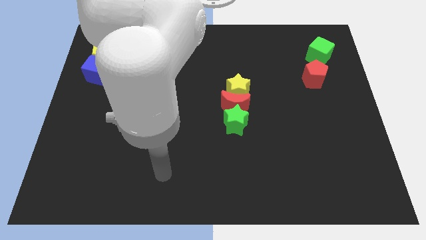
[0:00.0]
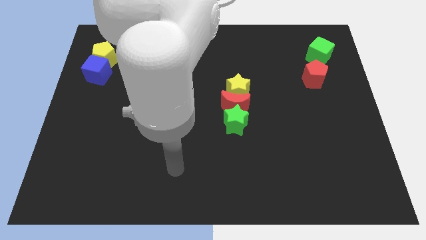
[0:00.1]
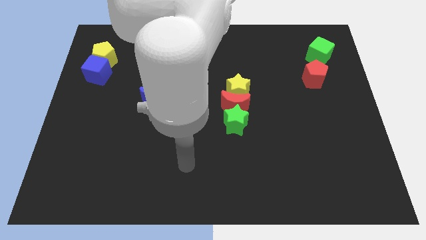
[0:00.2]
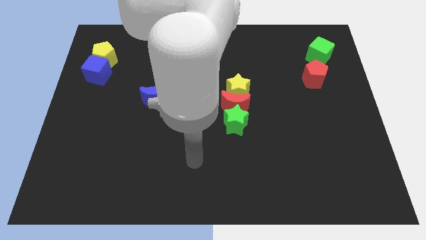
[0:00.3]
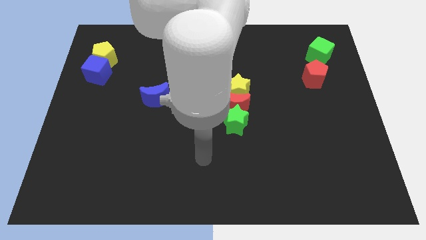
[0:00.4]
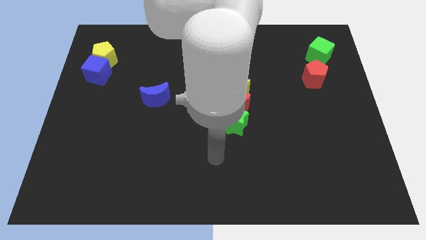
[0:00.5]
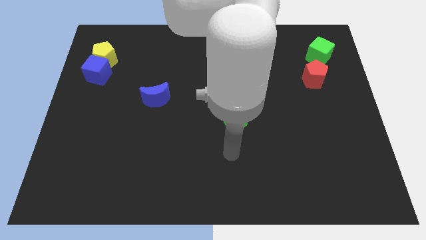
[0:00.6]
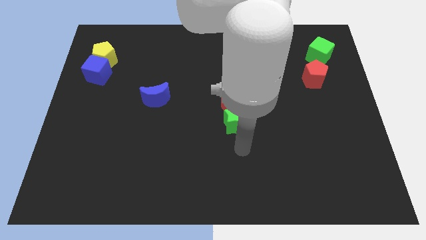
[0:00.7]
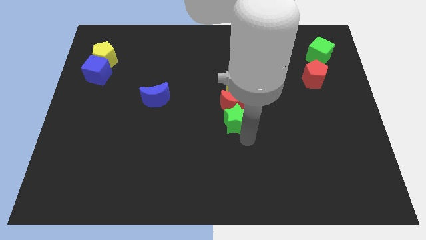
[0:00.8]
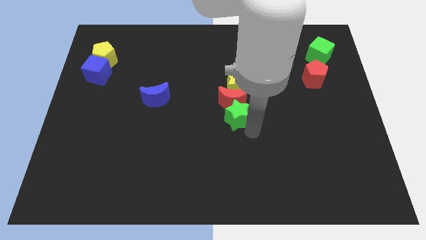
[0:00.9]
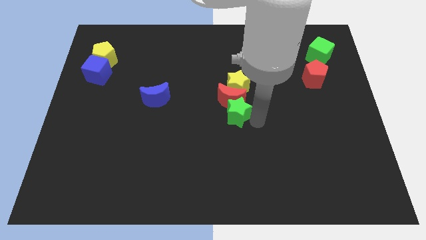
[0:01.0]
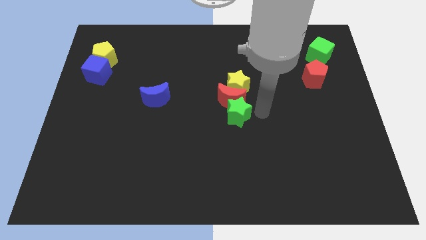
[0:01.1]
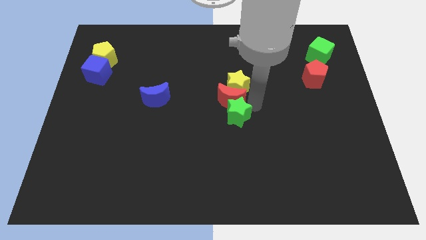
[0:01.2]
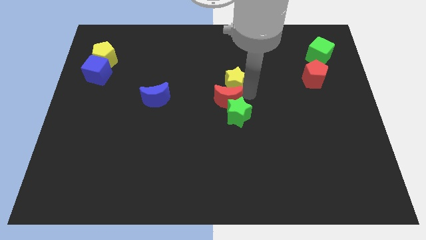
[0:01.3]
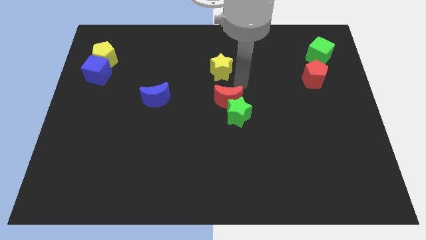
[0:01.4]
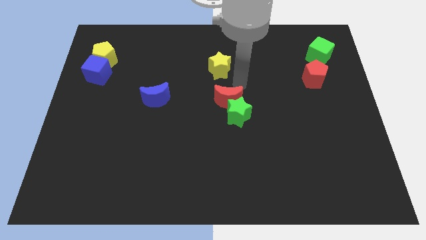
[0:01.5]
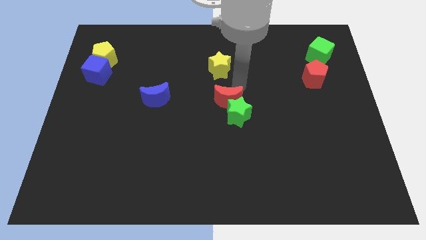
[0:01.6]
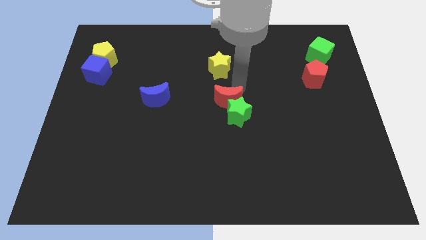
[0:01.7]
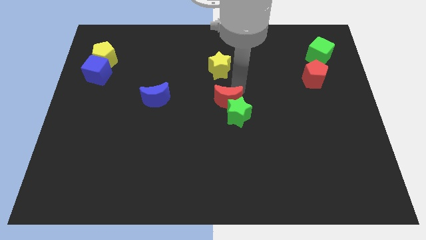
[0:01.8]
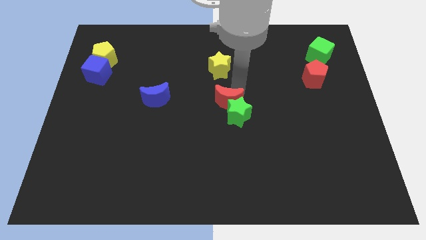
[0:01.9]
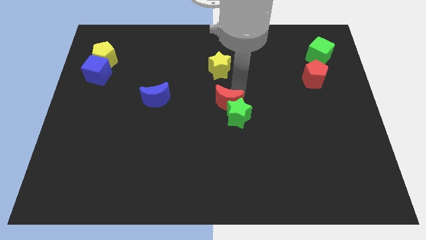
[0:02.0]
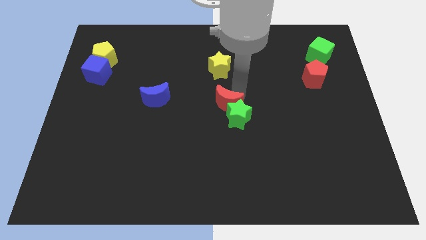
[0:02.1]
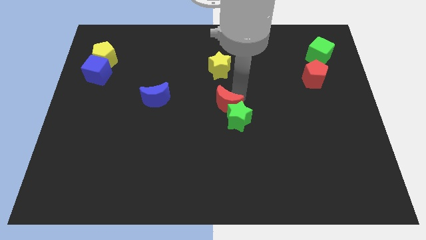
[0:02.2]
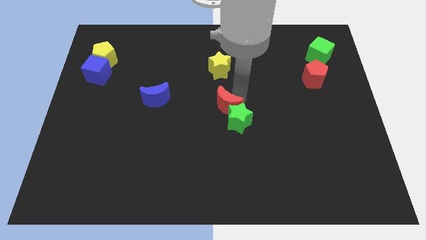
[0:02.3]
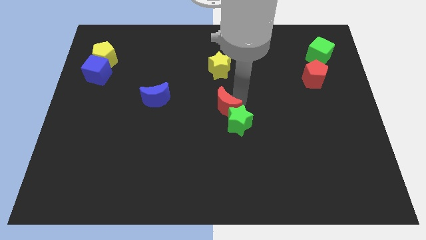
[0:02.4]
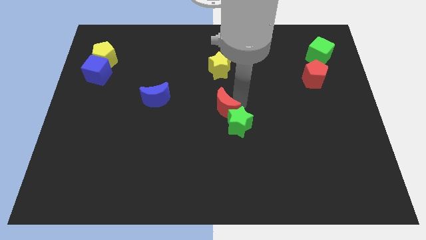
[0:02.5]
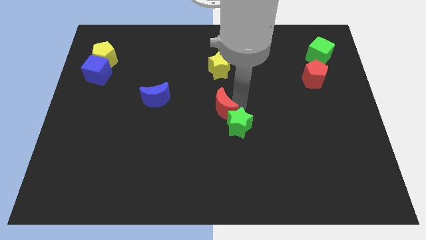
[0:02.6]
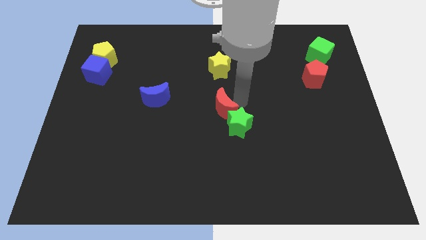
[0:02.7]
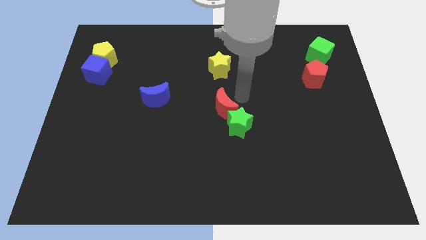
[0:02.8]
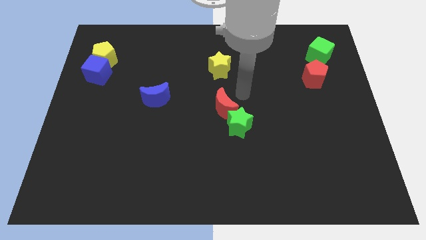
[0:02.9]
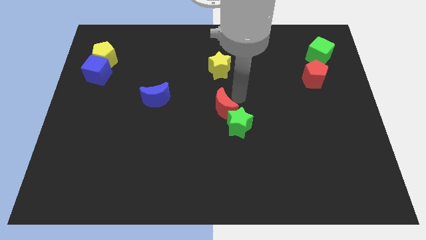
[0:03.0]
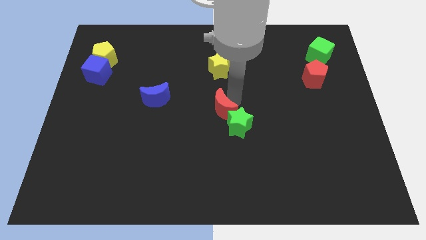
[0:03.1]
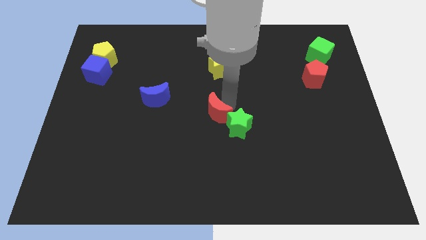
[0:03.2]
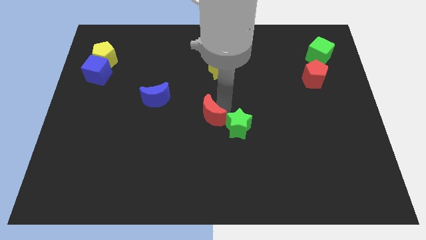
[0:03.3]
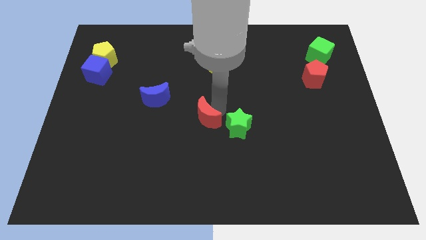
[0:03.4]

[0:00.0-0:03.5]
slightly move the red moon downwards and to the left diagonally

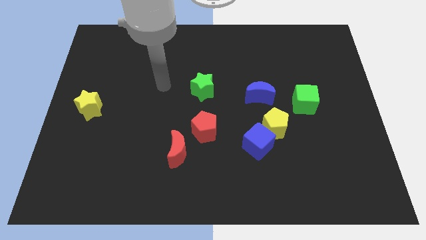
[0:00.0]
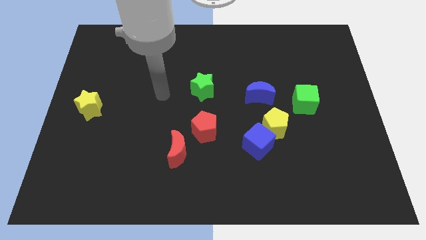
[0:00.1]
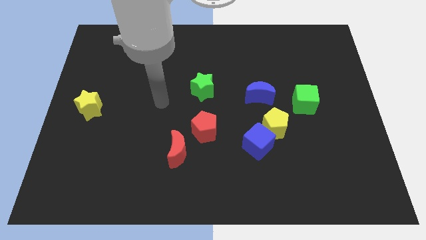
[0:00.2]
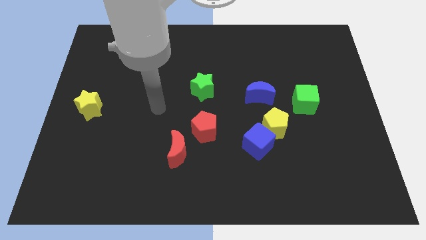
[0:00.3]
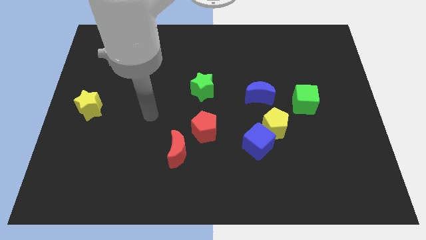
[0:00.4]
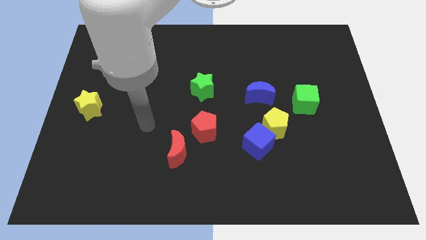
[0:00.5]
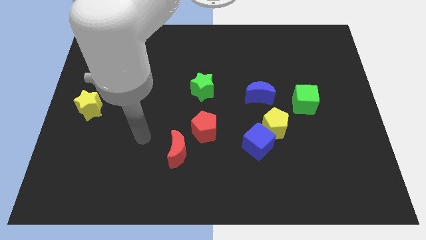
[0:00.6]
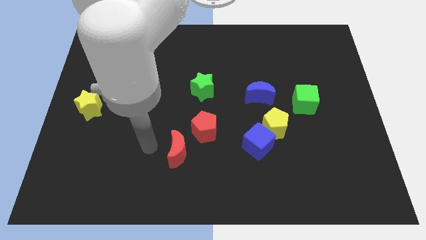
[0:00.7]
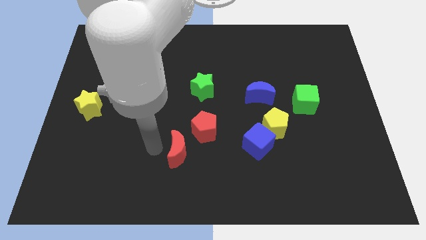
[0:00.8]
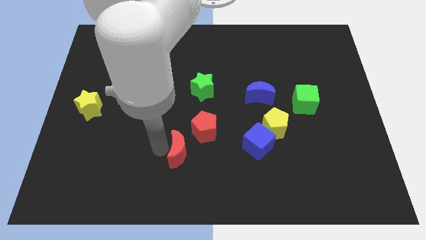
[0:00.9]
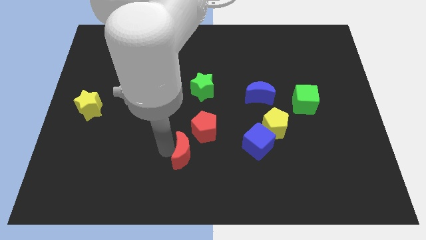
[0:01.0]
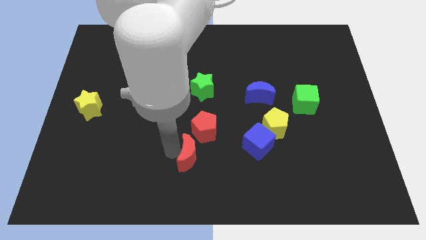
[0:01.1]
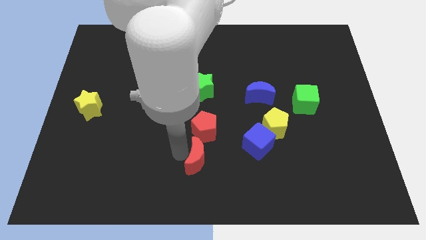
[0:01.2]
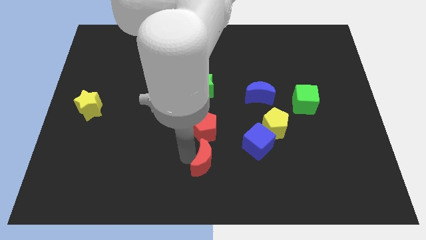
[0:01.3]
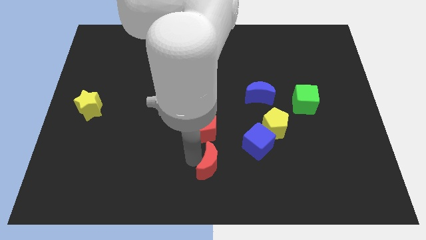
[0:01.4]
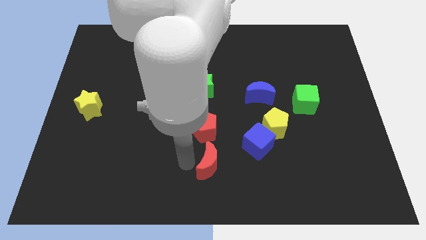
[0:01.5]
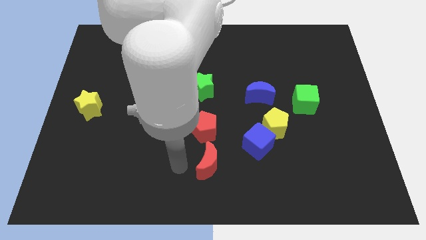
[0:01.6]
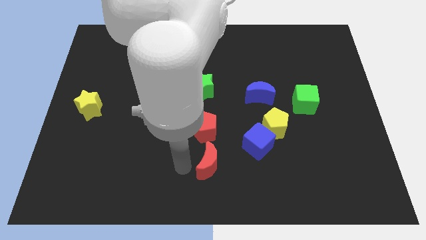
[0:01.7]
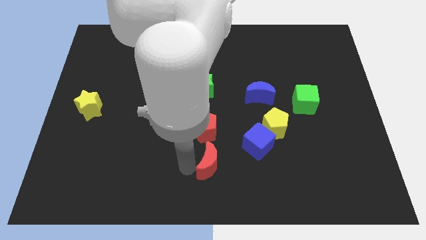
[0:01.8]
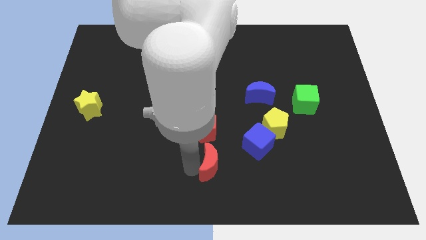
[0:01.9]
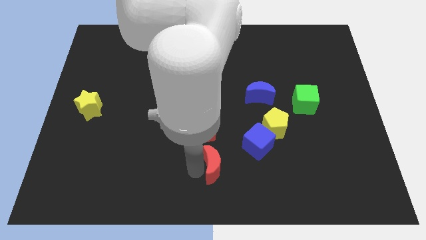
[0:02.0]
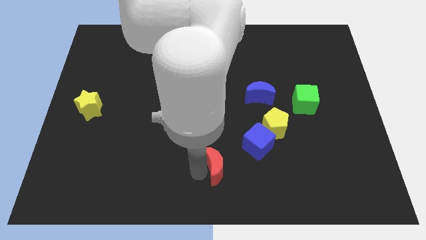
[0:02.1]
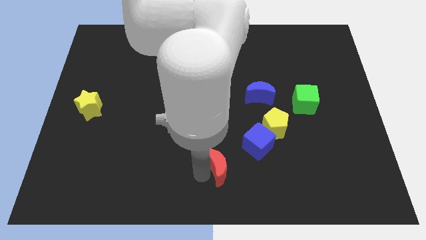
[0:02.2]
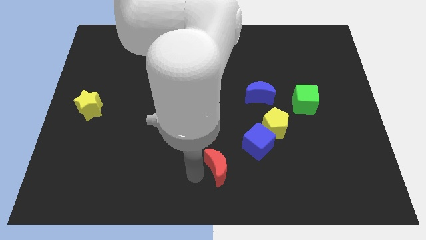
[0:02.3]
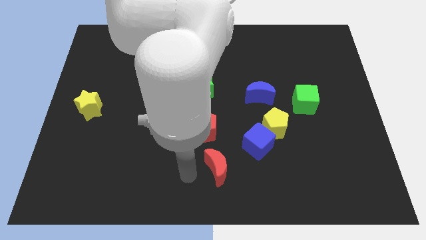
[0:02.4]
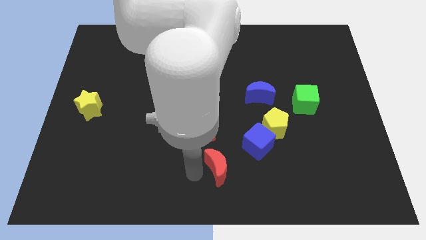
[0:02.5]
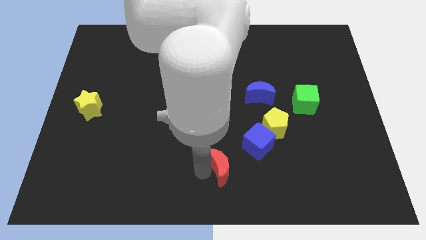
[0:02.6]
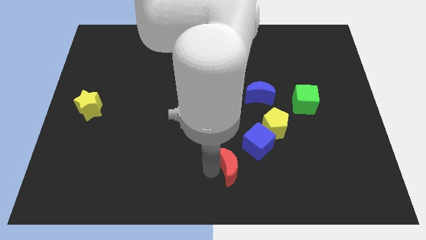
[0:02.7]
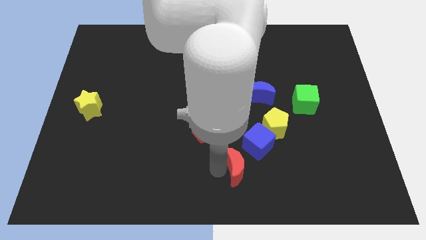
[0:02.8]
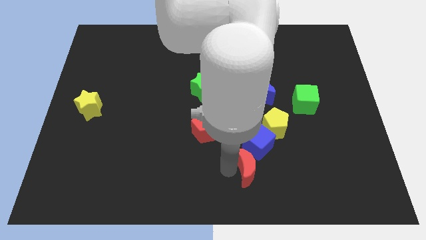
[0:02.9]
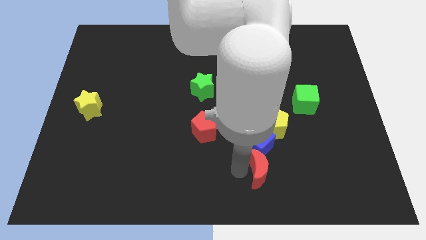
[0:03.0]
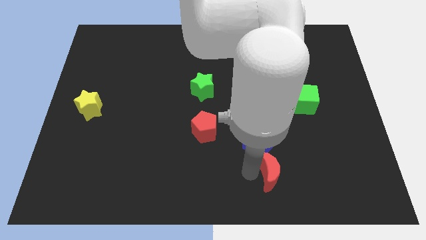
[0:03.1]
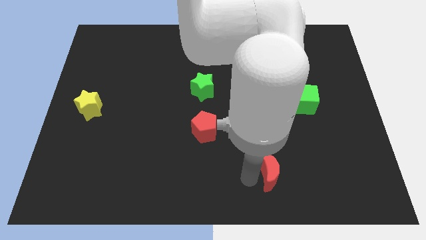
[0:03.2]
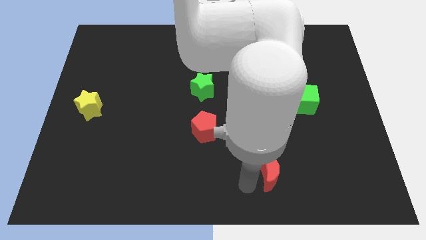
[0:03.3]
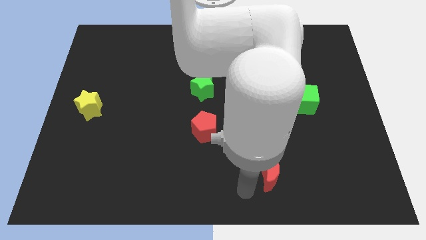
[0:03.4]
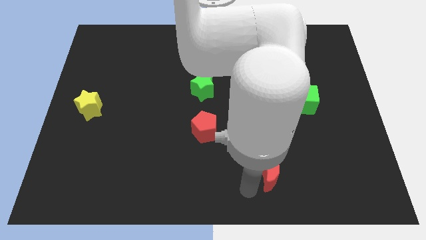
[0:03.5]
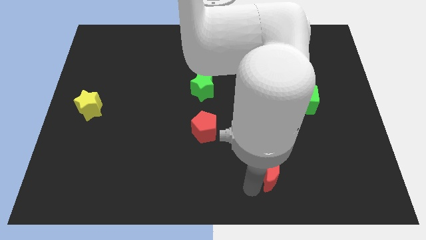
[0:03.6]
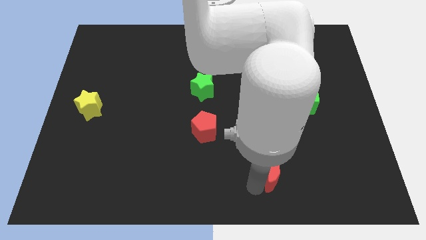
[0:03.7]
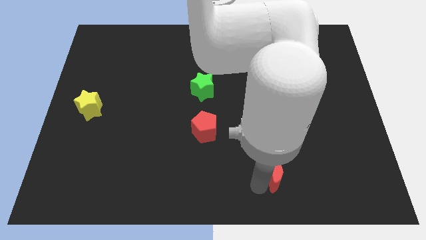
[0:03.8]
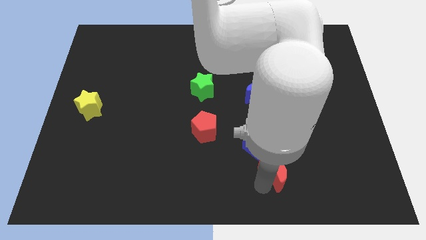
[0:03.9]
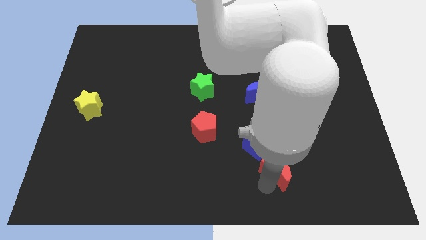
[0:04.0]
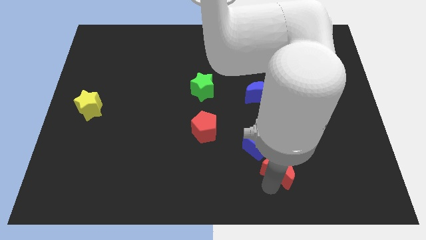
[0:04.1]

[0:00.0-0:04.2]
move the red moon right

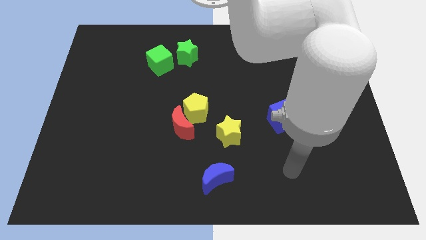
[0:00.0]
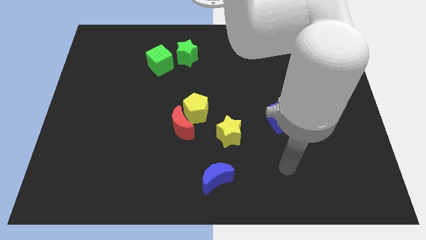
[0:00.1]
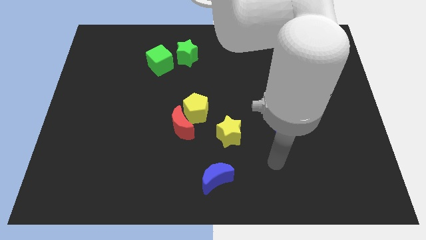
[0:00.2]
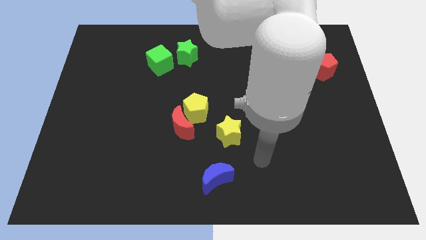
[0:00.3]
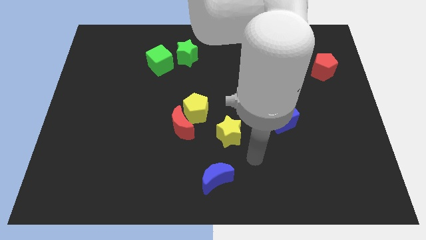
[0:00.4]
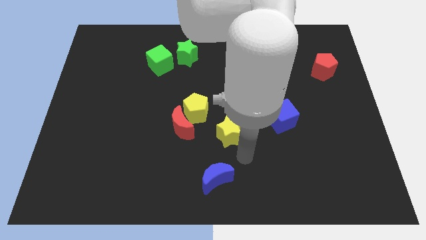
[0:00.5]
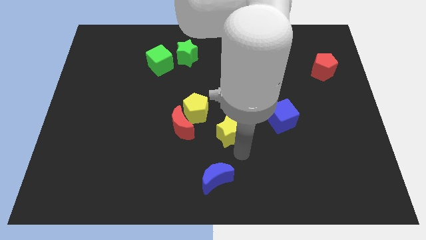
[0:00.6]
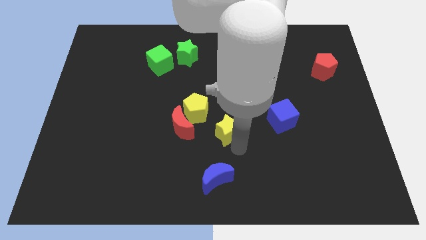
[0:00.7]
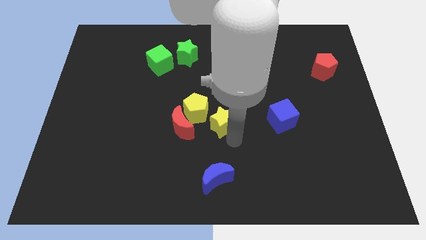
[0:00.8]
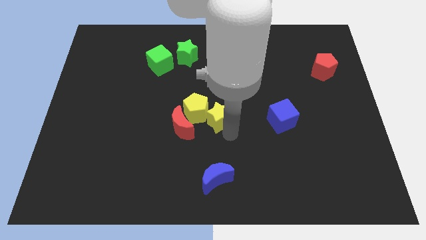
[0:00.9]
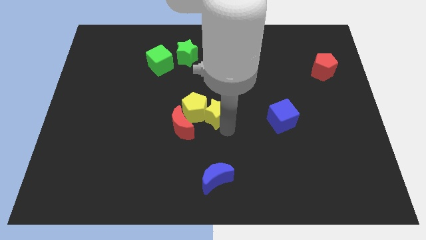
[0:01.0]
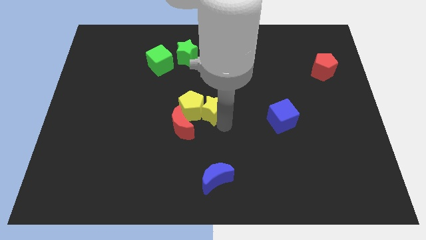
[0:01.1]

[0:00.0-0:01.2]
slide the yellow star a bit up and then to the left
